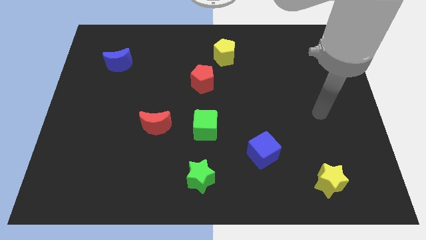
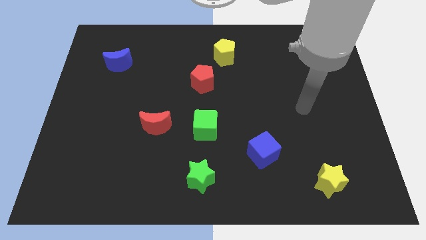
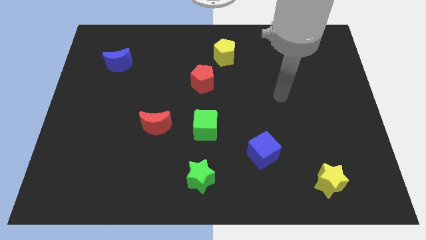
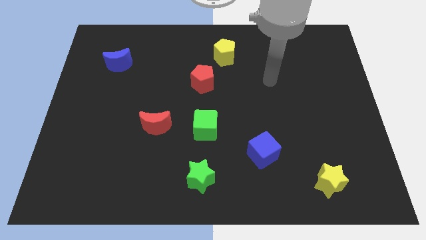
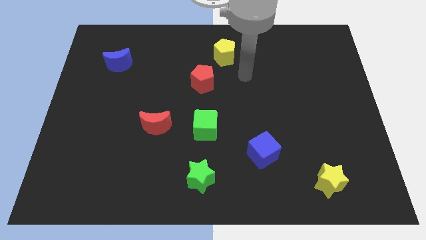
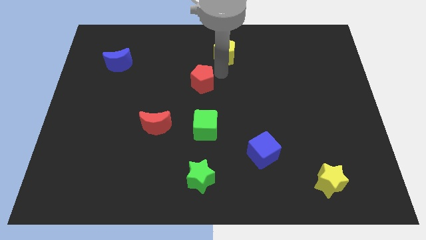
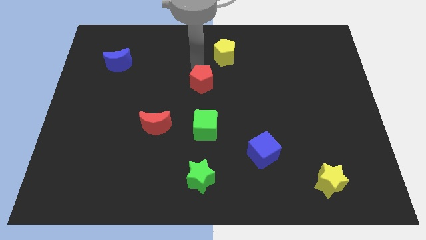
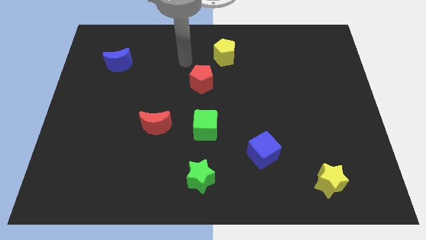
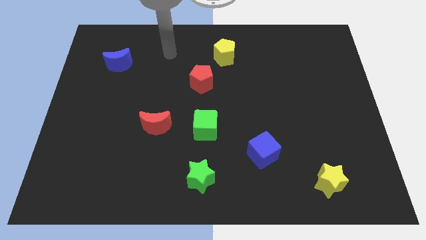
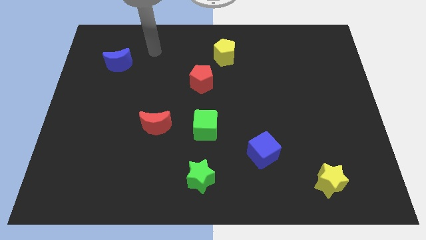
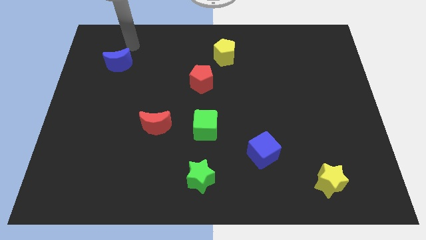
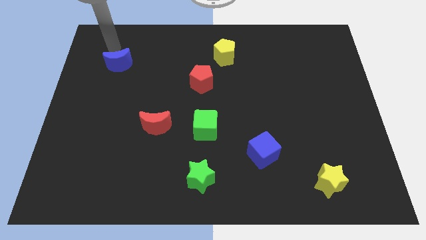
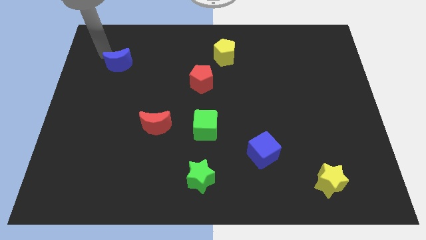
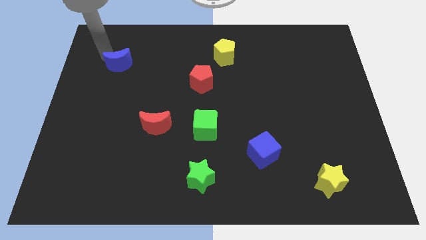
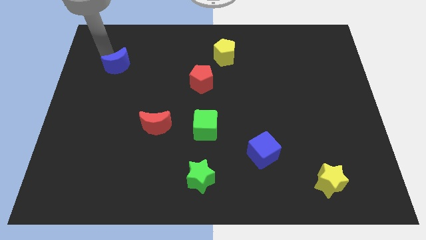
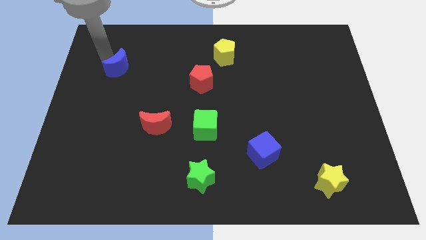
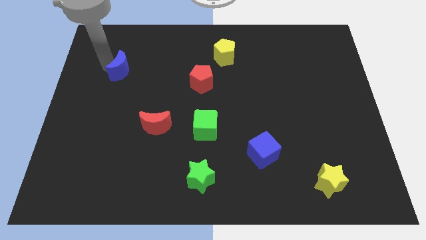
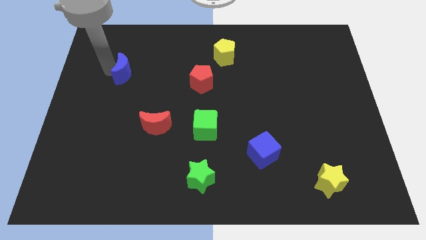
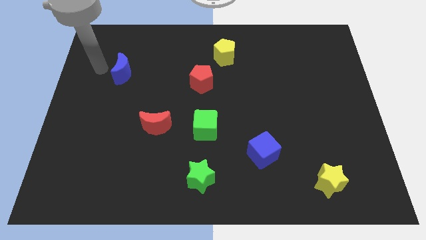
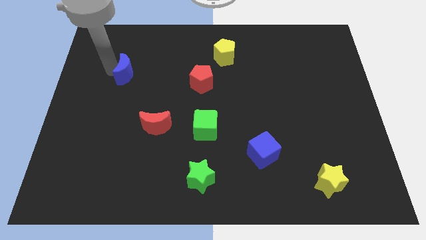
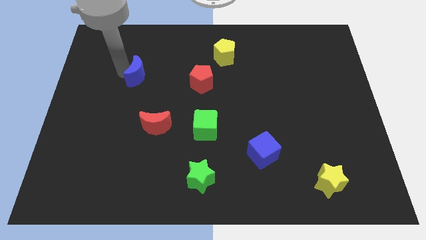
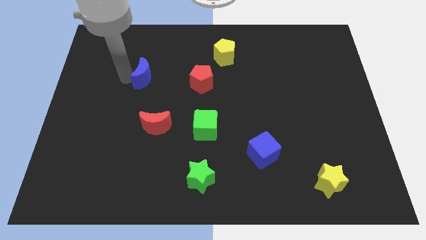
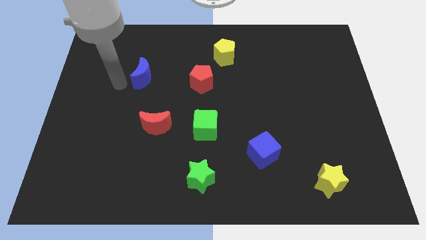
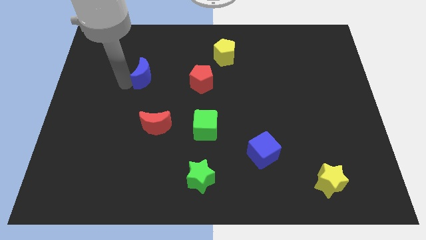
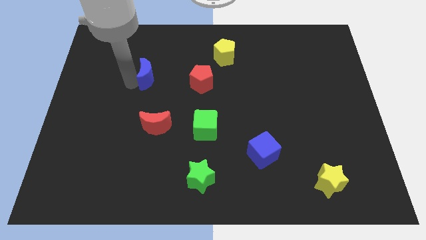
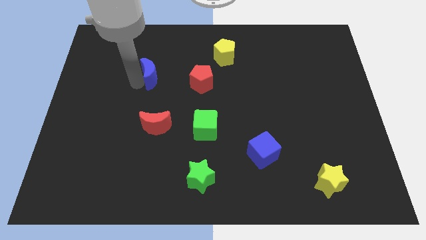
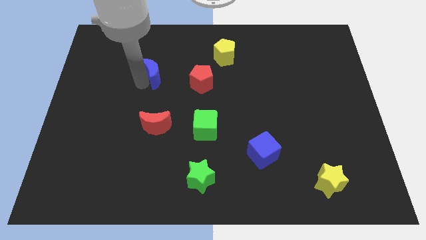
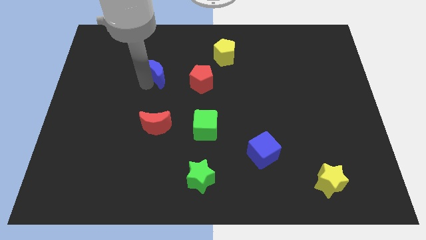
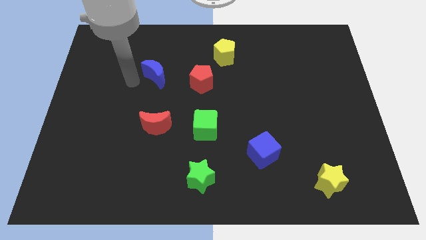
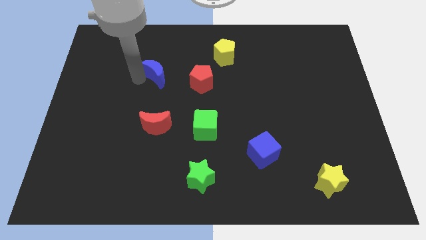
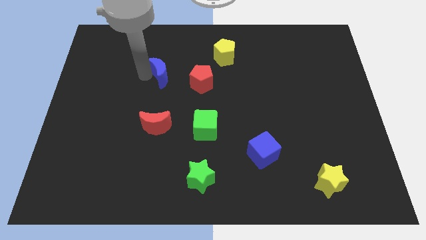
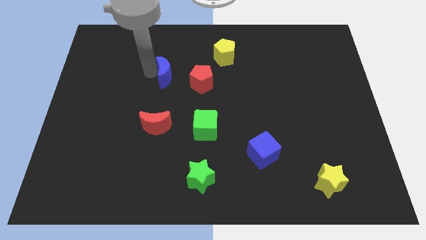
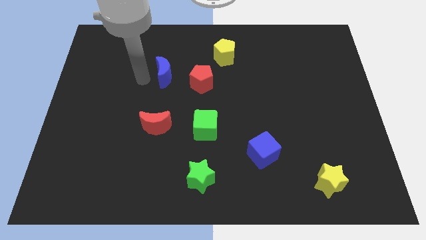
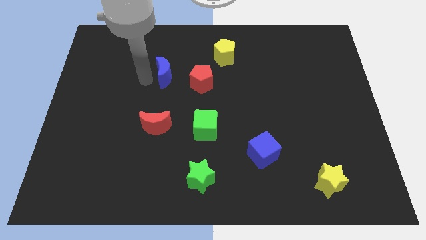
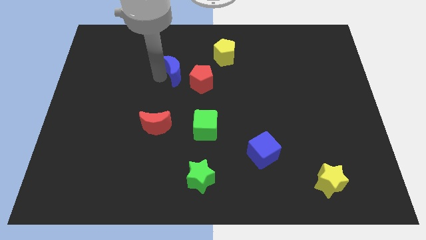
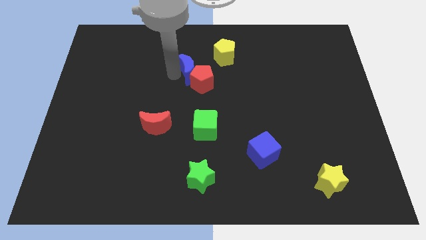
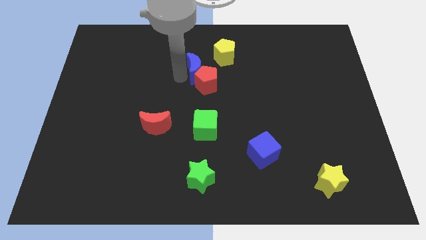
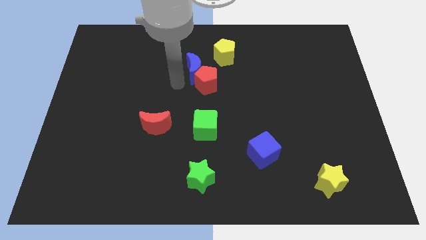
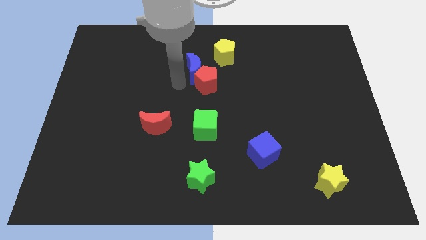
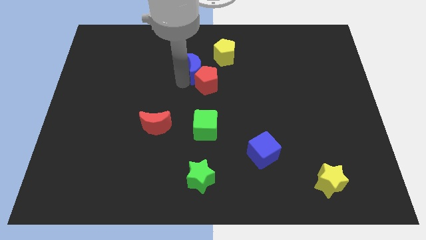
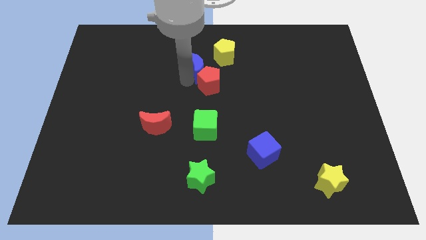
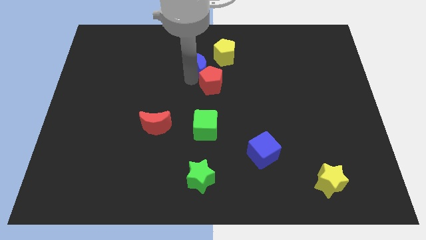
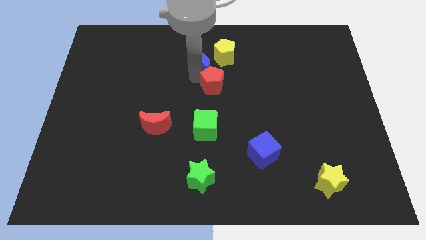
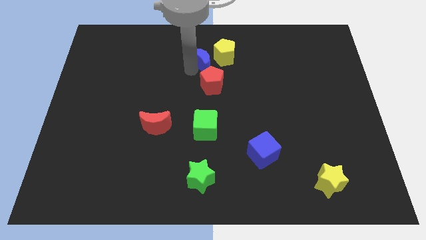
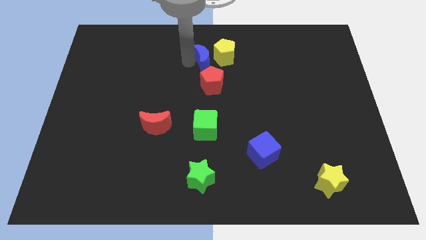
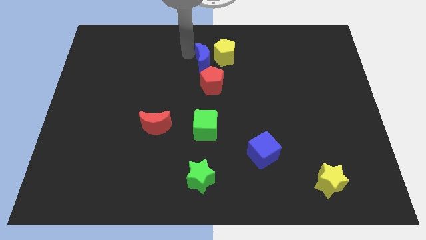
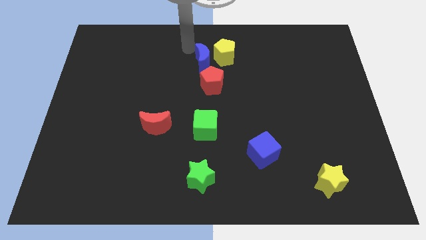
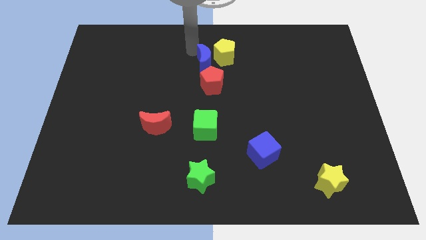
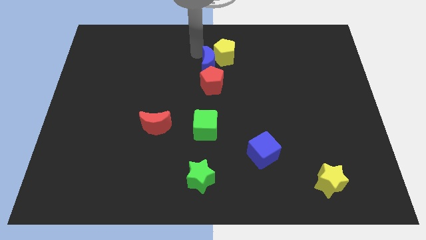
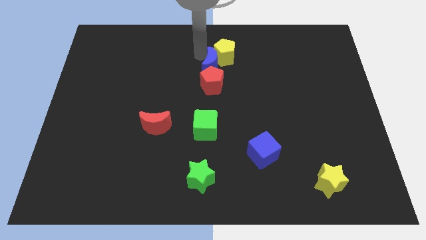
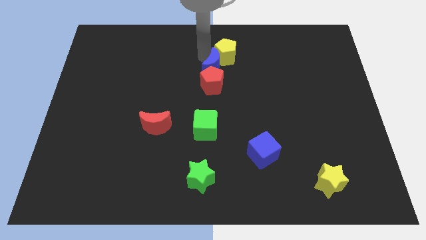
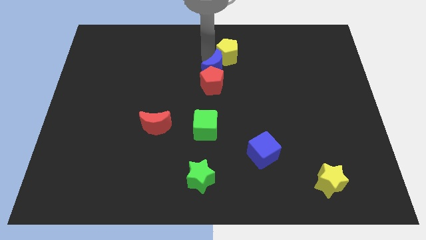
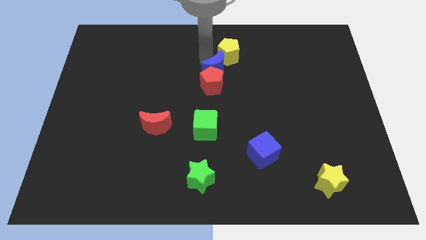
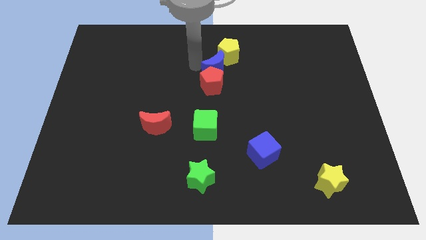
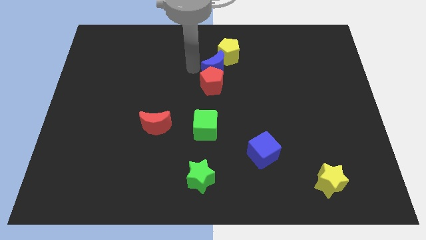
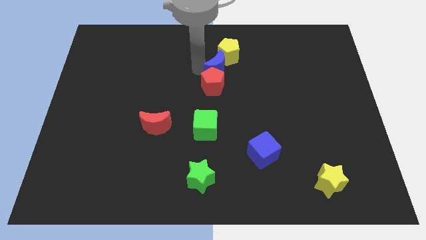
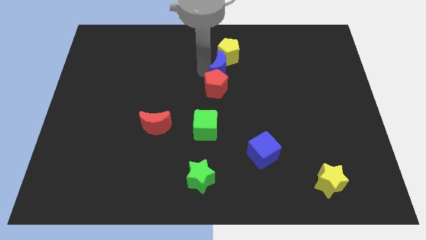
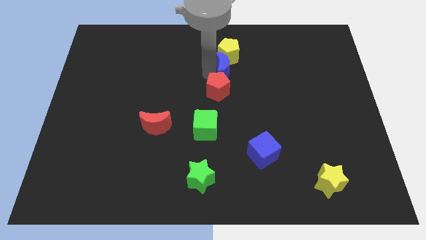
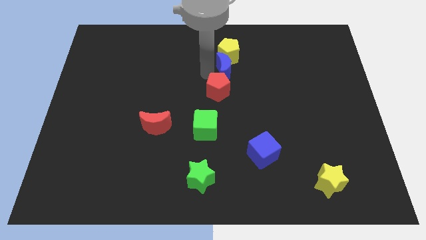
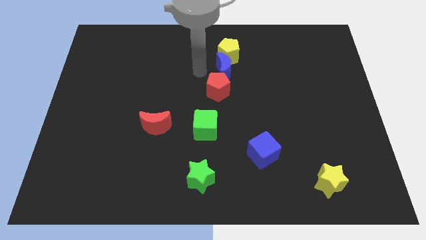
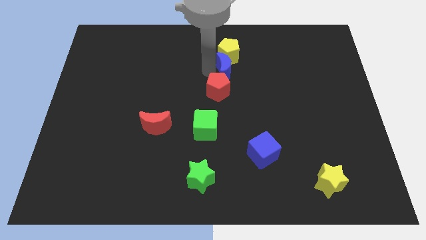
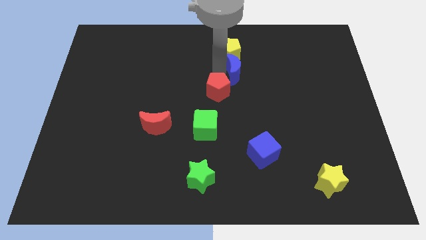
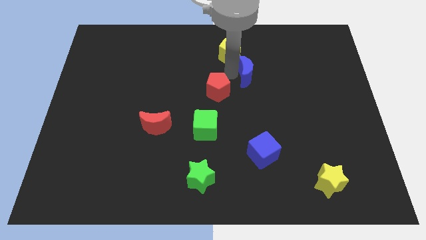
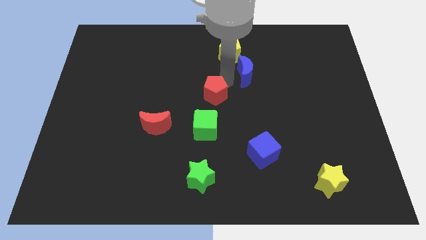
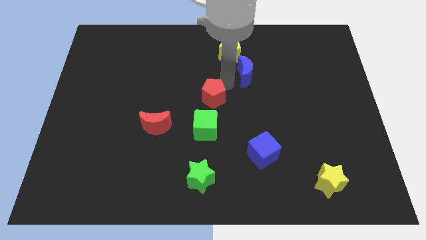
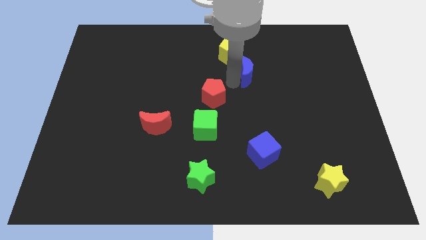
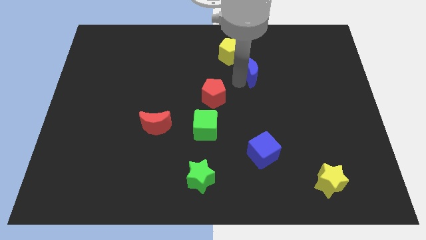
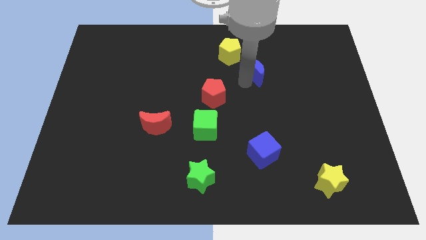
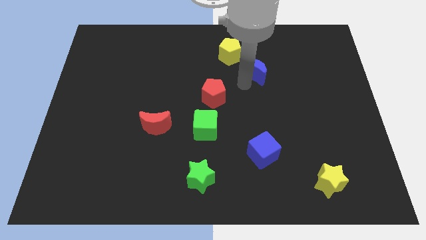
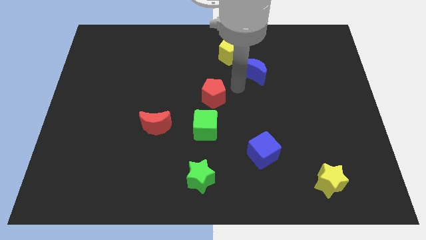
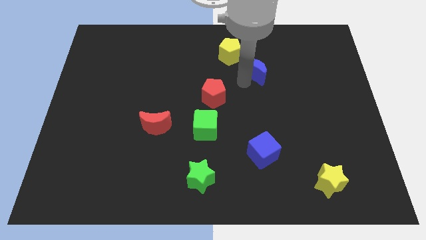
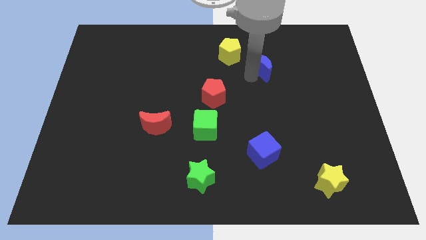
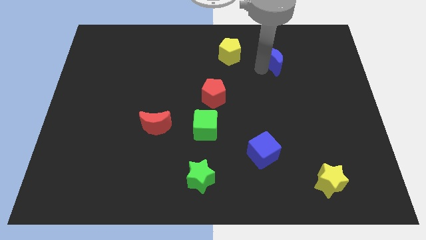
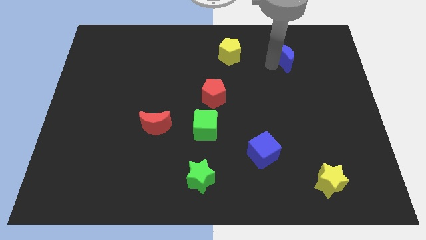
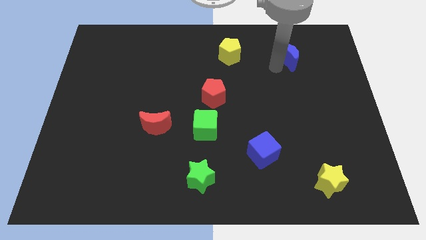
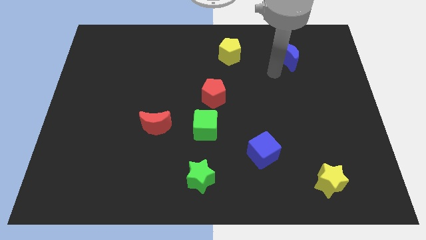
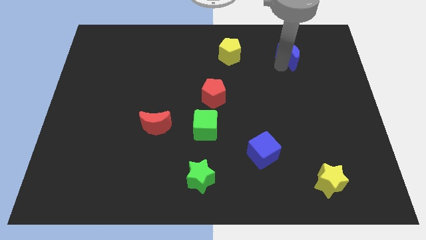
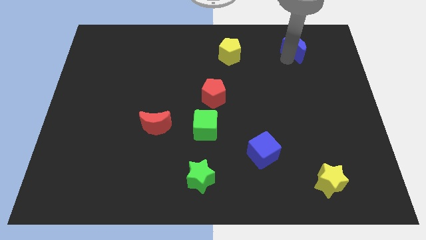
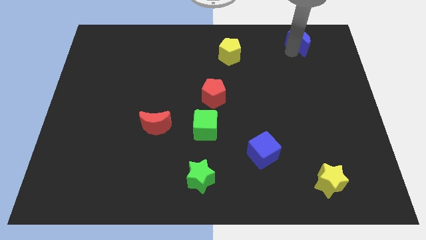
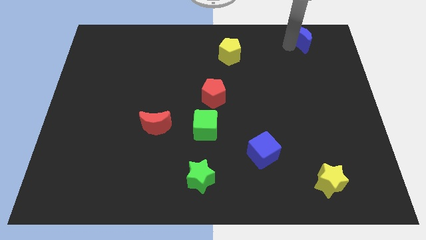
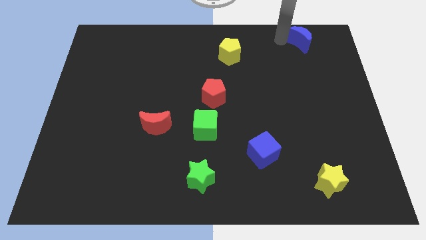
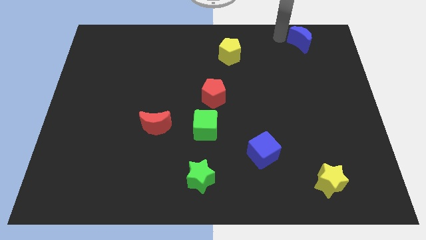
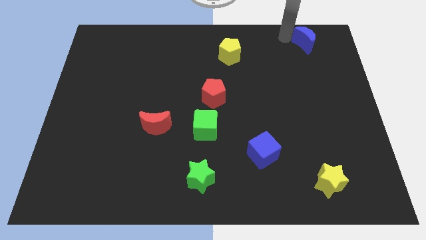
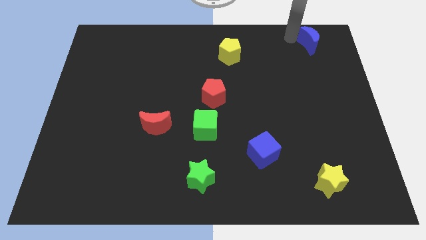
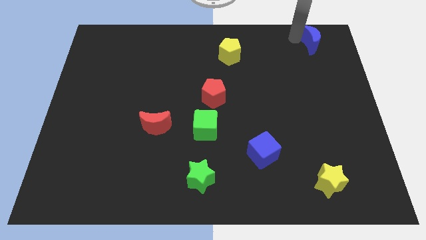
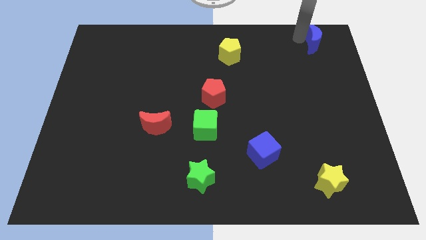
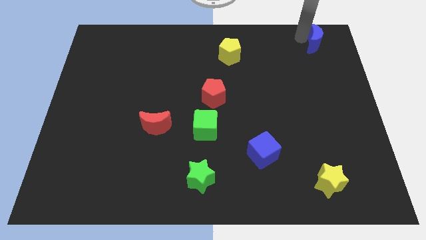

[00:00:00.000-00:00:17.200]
slide the blue moon to the top right corner
